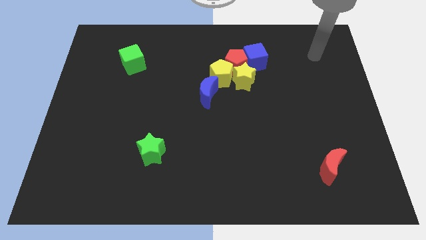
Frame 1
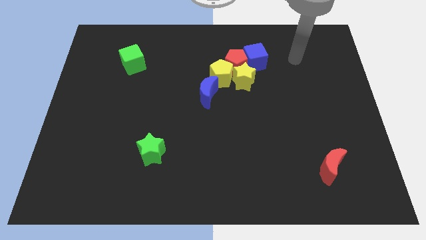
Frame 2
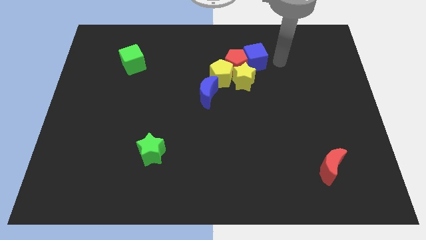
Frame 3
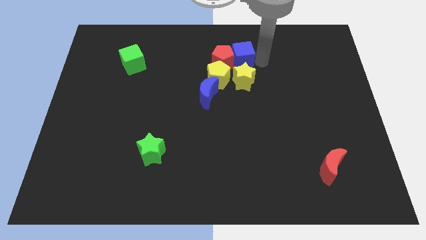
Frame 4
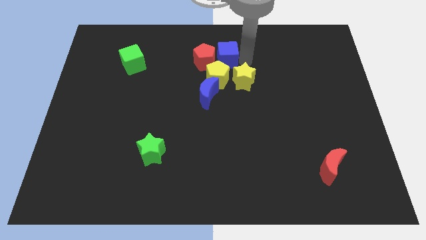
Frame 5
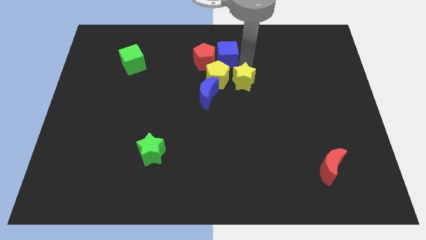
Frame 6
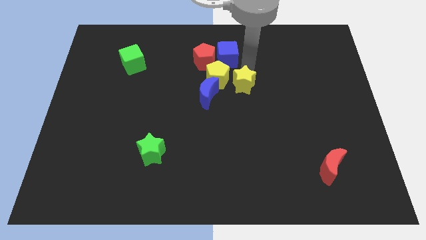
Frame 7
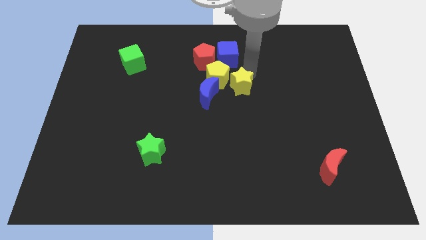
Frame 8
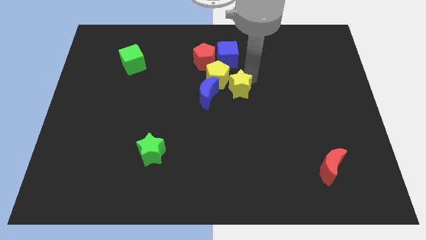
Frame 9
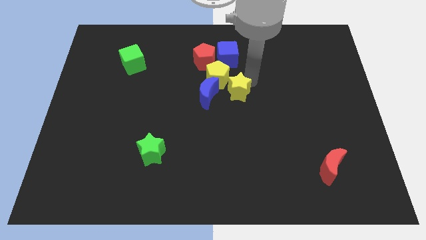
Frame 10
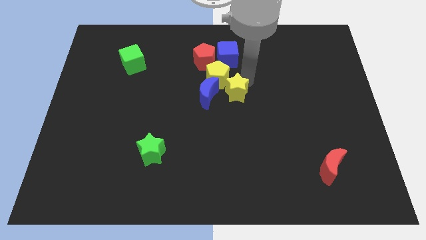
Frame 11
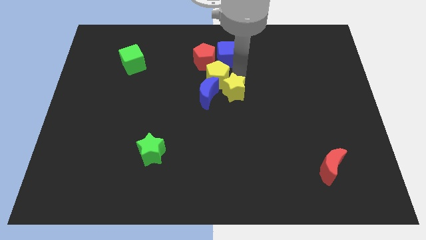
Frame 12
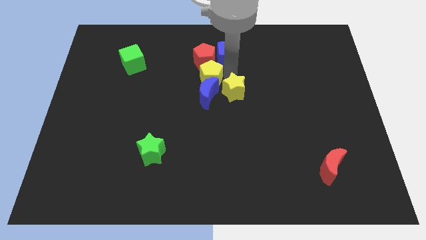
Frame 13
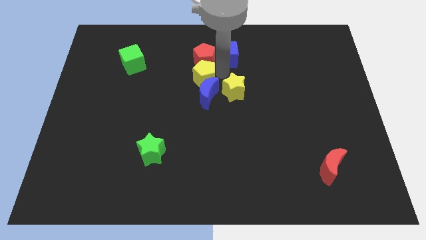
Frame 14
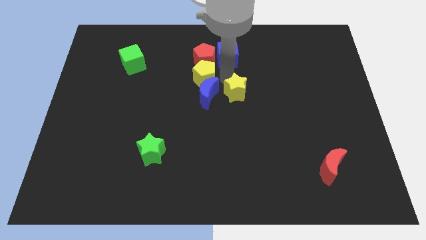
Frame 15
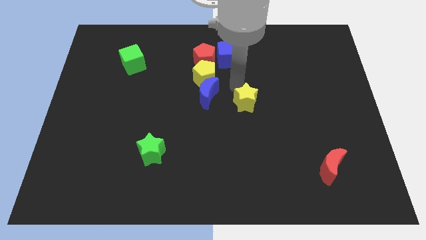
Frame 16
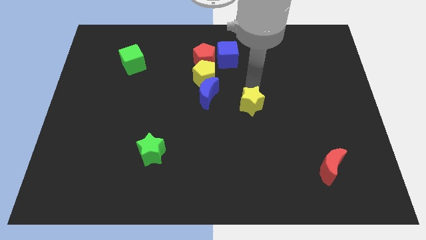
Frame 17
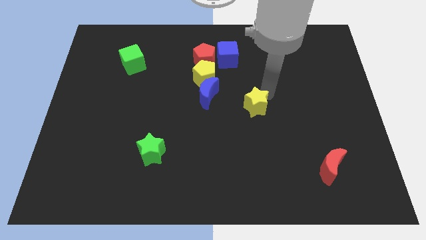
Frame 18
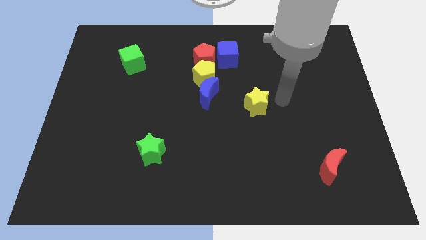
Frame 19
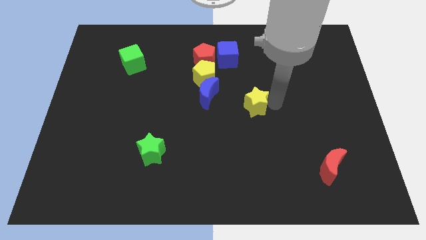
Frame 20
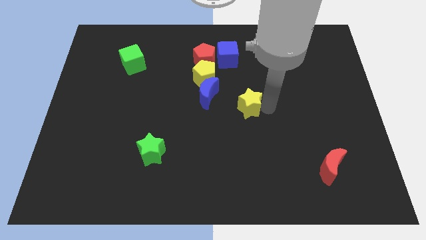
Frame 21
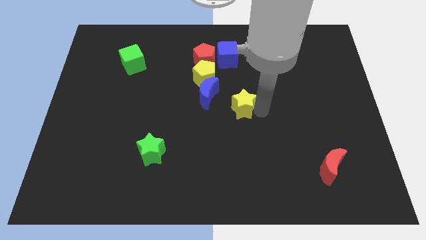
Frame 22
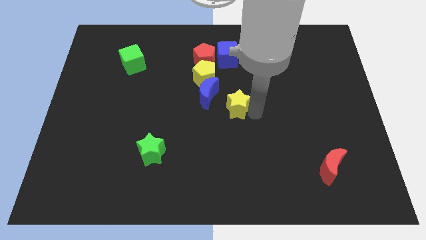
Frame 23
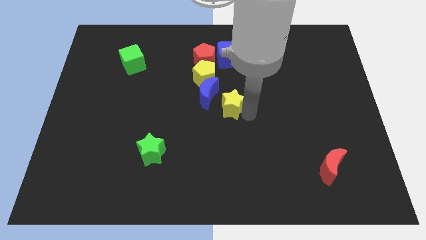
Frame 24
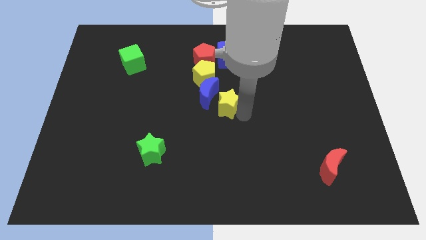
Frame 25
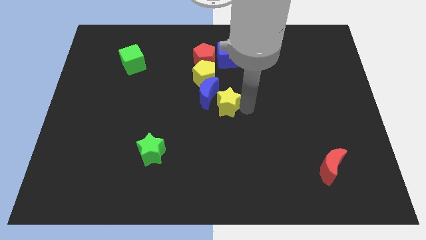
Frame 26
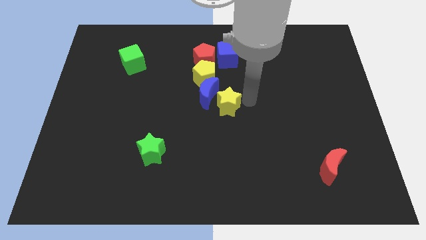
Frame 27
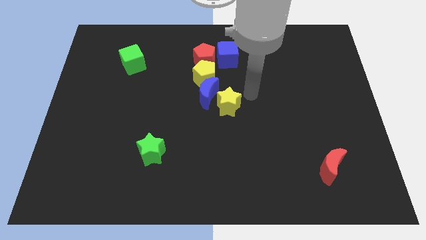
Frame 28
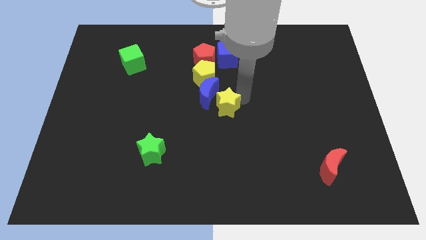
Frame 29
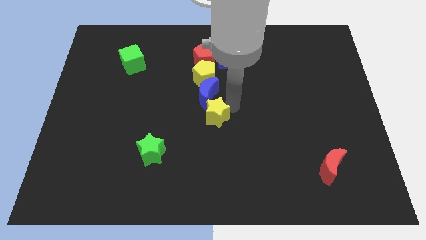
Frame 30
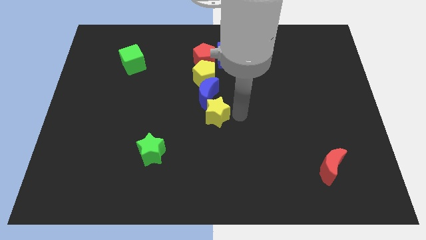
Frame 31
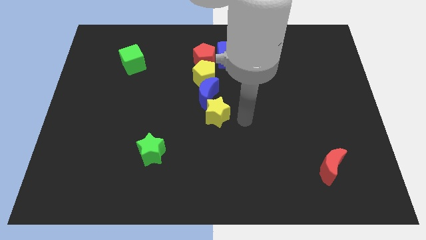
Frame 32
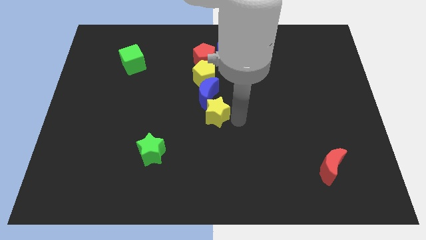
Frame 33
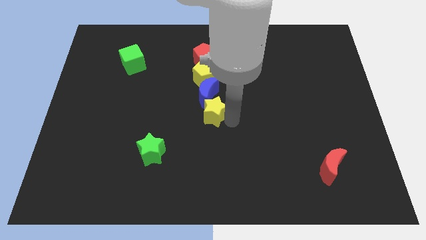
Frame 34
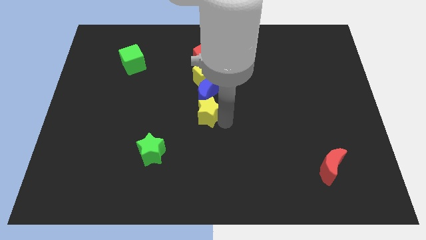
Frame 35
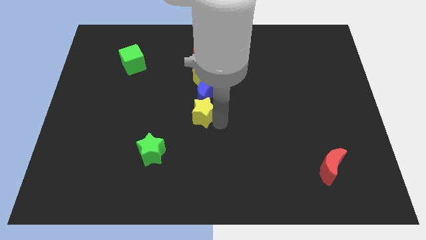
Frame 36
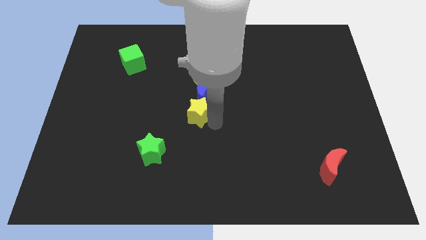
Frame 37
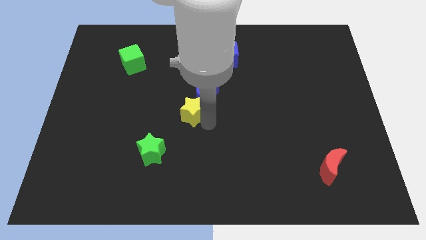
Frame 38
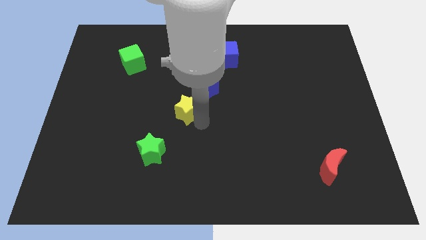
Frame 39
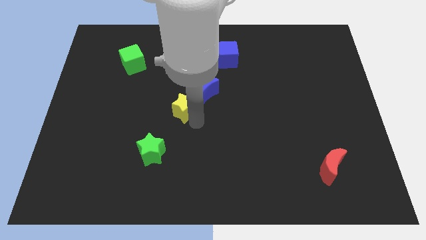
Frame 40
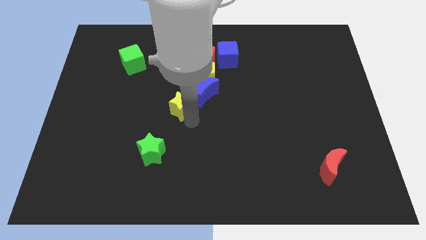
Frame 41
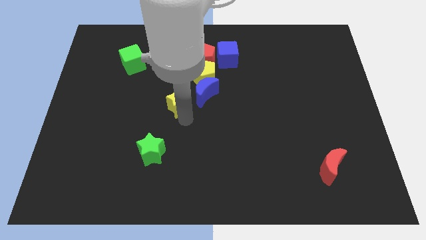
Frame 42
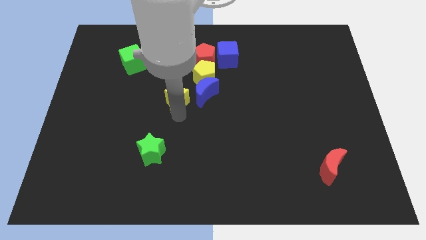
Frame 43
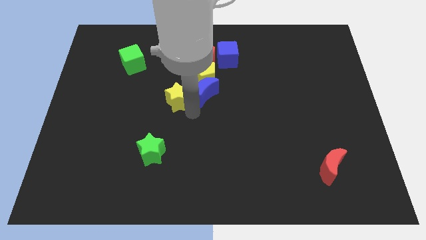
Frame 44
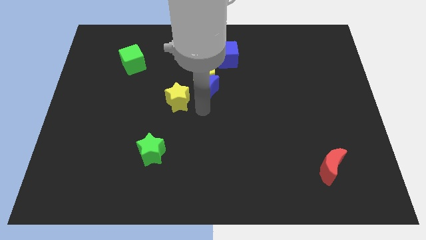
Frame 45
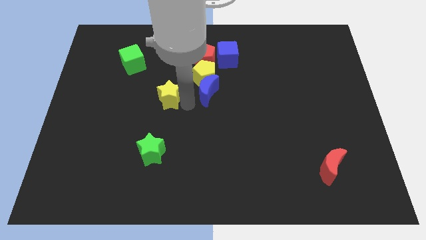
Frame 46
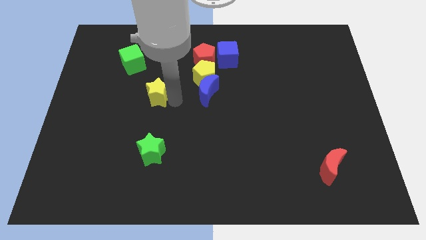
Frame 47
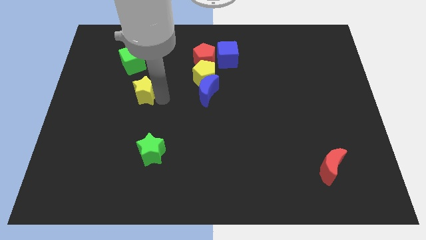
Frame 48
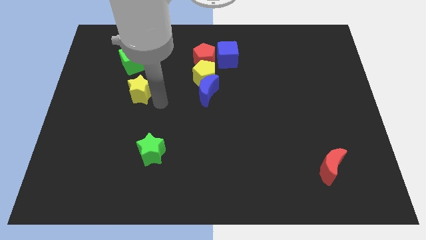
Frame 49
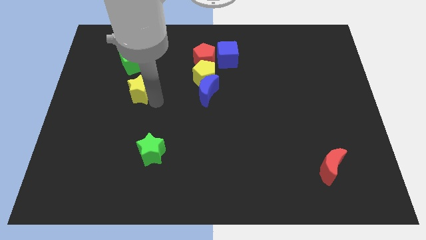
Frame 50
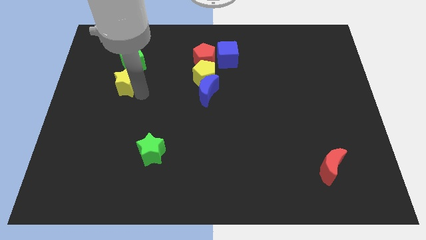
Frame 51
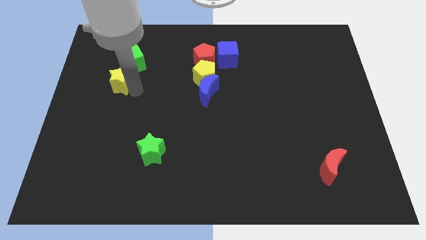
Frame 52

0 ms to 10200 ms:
push the yellow star diagonally down and to the left of the green cube

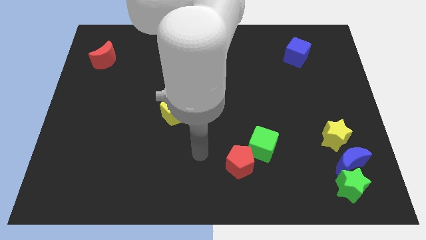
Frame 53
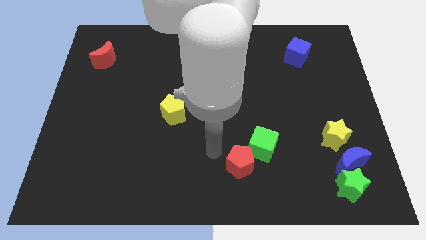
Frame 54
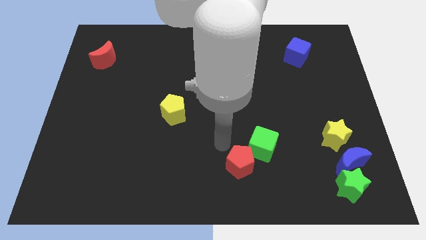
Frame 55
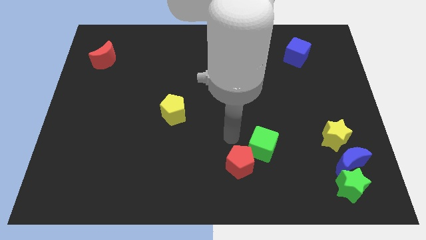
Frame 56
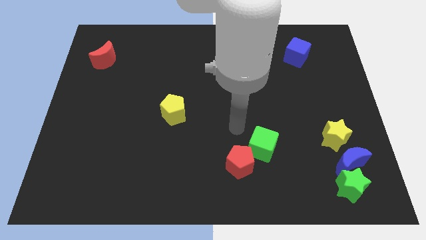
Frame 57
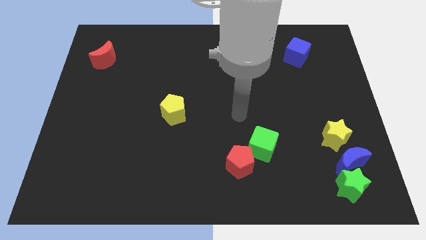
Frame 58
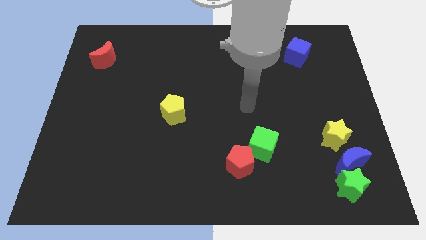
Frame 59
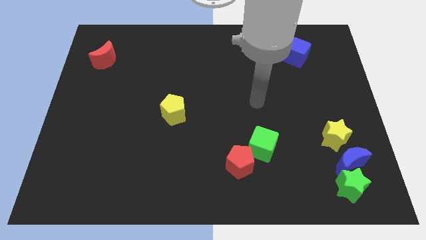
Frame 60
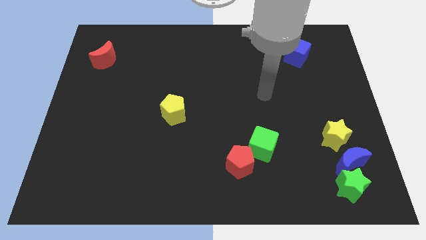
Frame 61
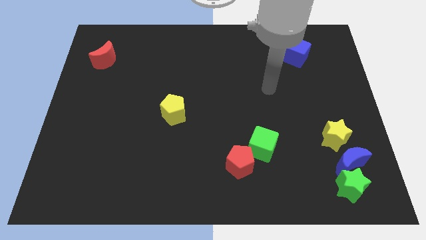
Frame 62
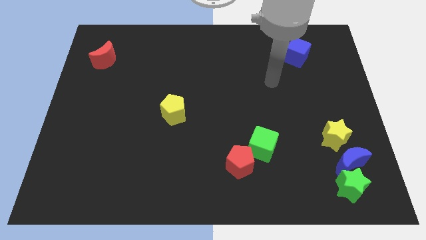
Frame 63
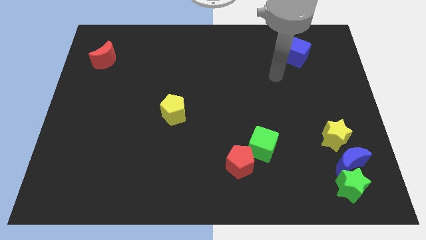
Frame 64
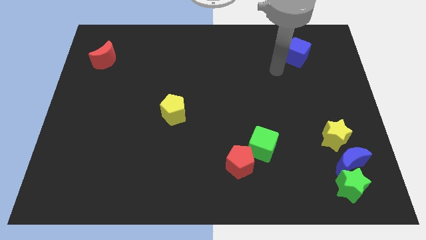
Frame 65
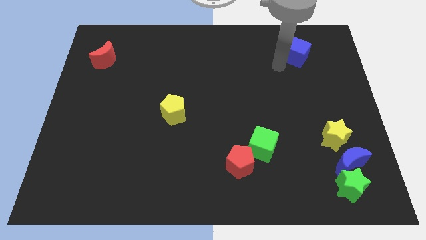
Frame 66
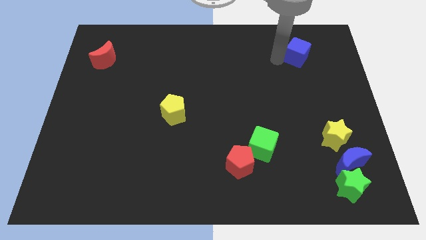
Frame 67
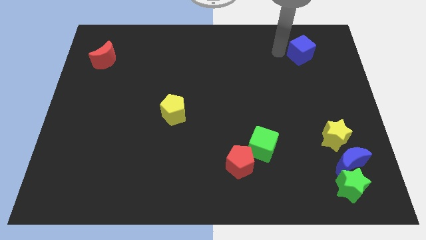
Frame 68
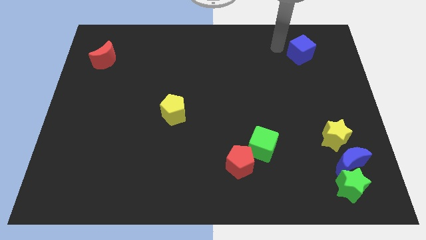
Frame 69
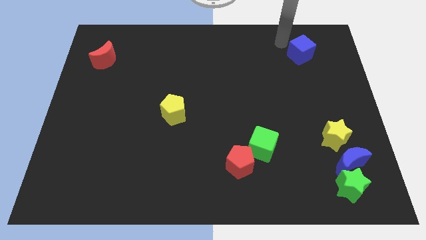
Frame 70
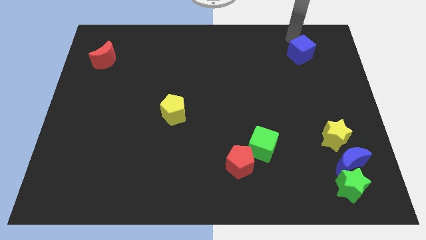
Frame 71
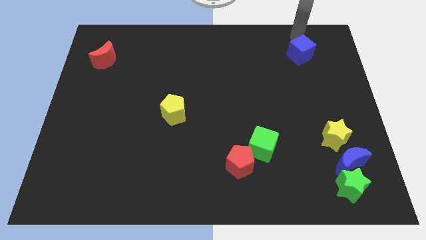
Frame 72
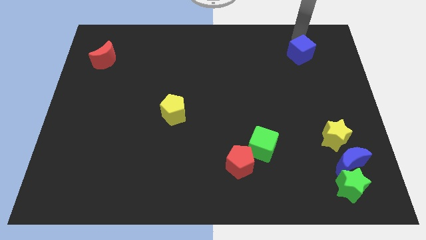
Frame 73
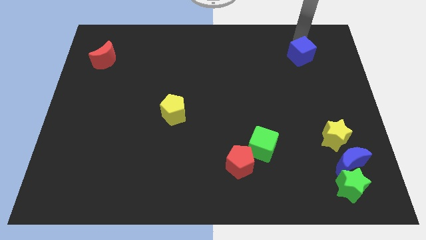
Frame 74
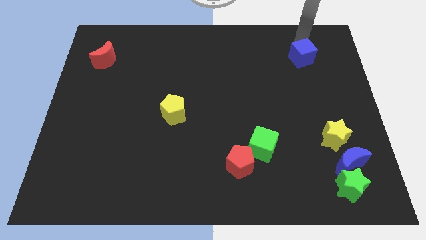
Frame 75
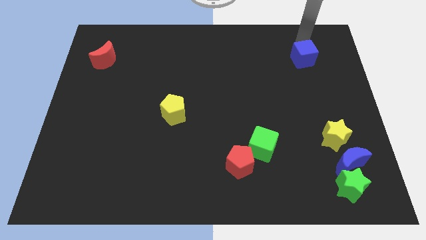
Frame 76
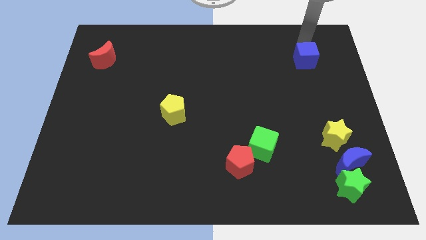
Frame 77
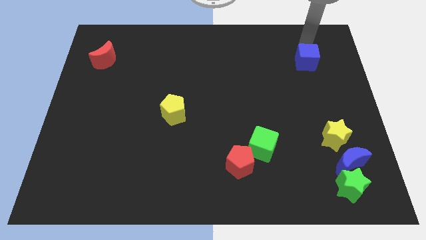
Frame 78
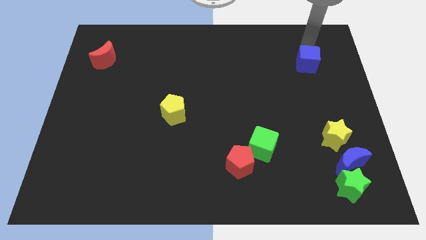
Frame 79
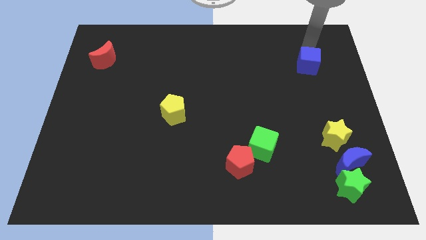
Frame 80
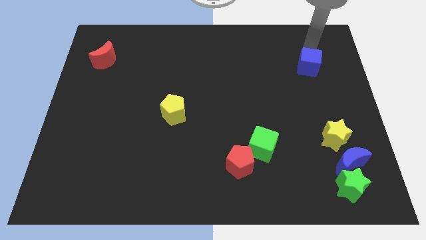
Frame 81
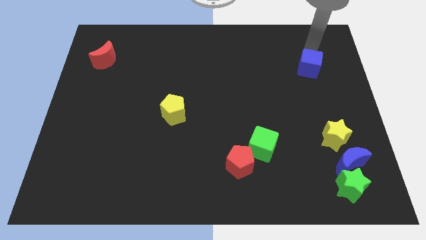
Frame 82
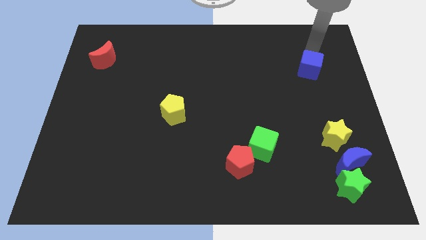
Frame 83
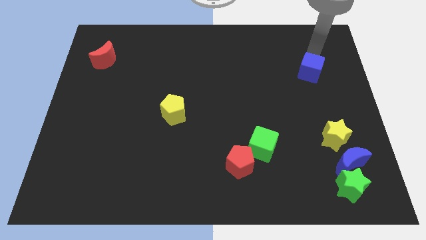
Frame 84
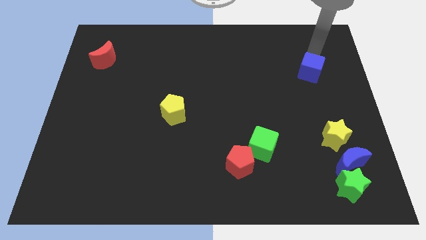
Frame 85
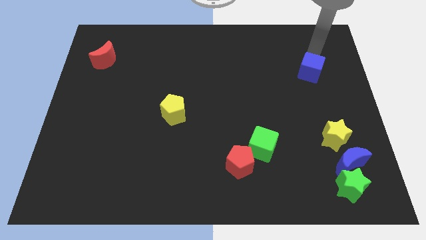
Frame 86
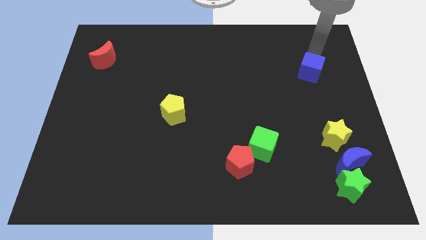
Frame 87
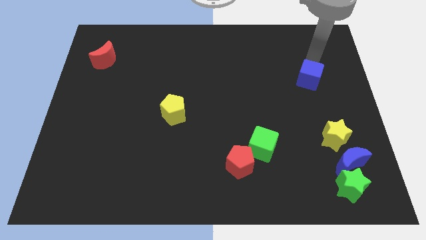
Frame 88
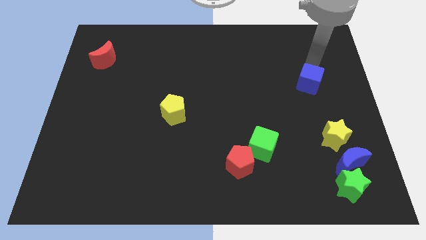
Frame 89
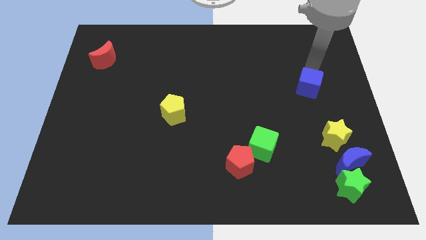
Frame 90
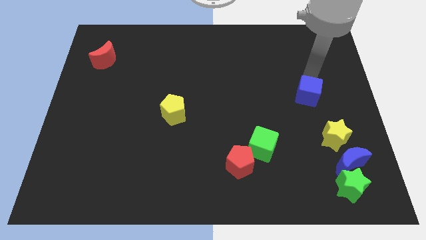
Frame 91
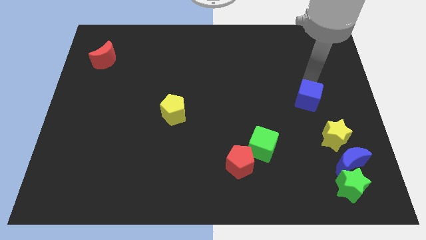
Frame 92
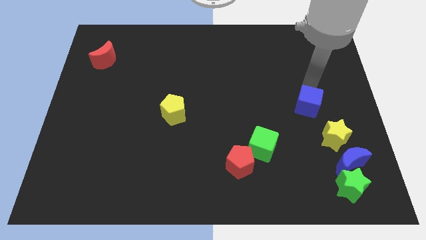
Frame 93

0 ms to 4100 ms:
put the blue cube diagonally up and to the left of the yellow star
